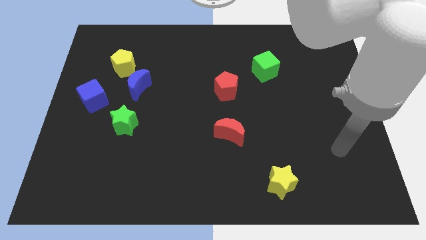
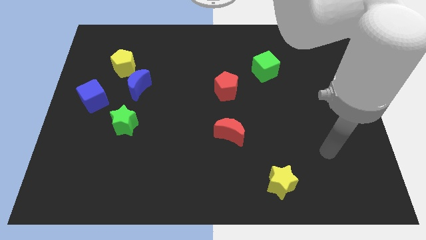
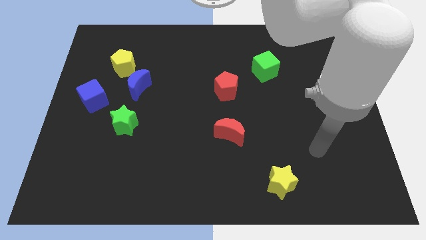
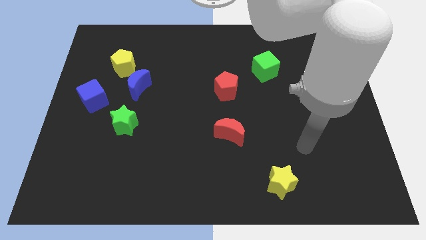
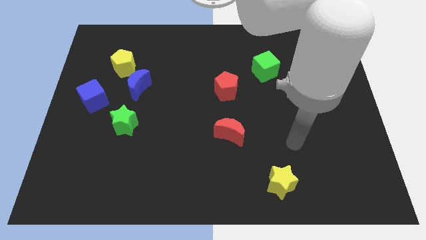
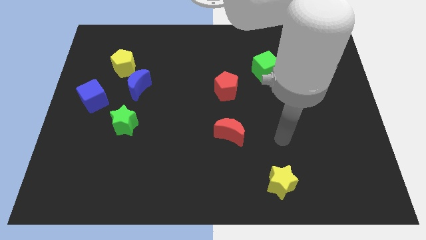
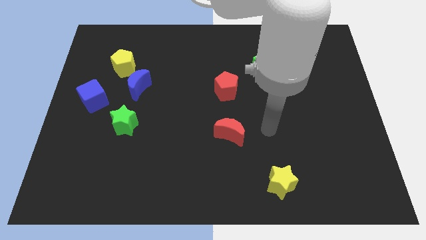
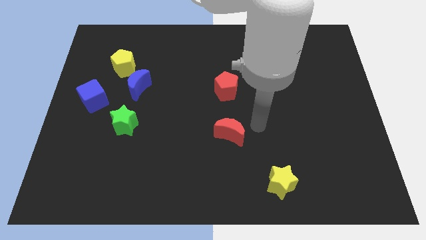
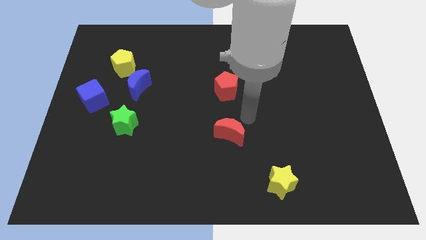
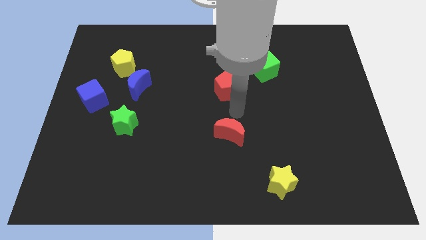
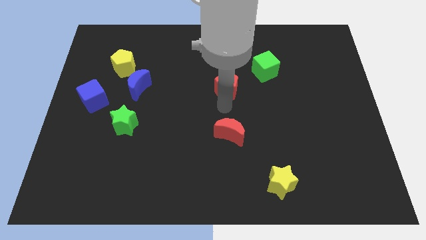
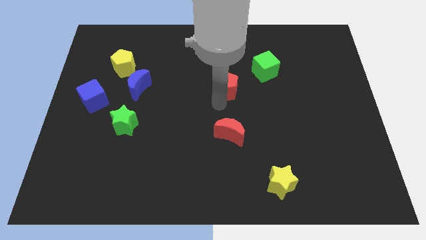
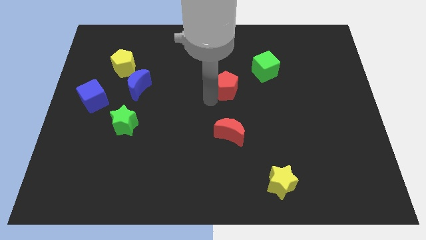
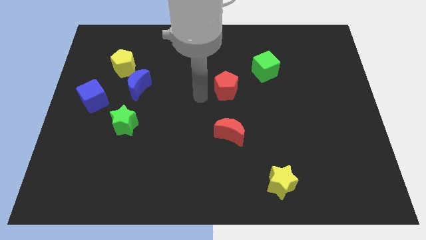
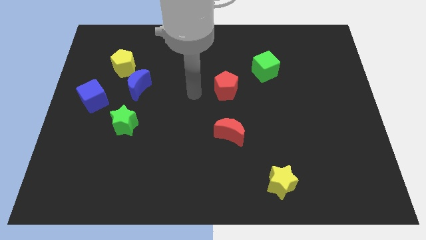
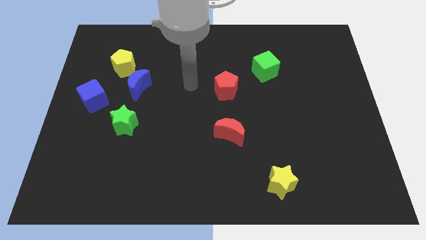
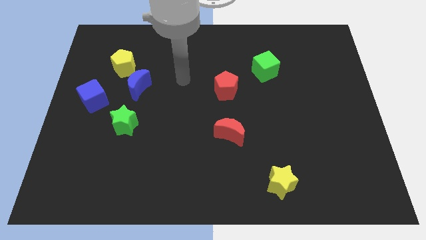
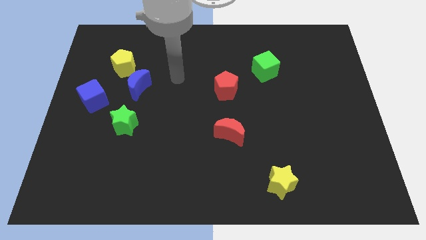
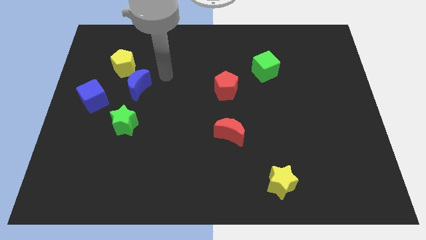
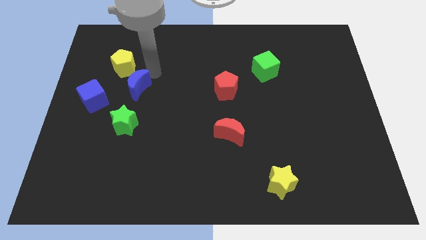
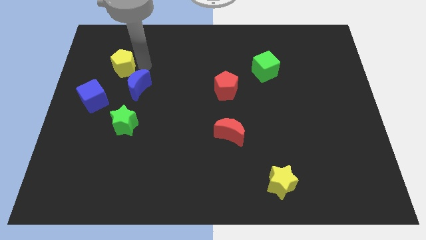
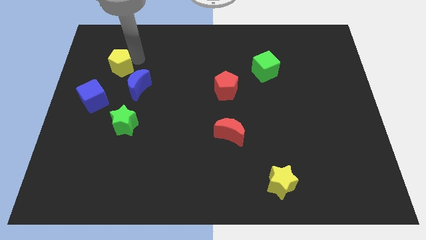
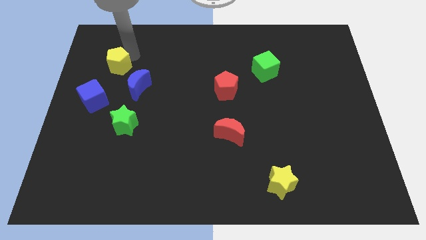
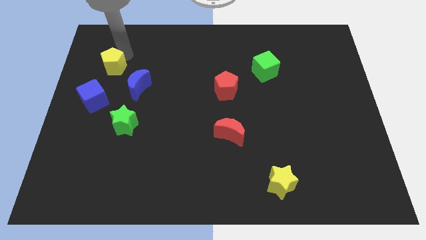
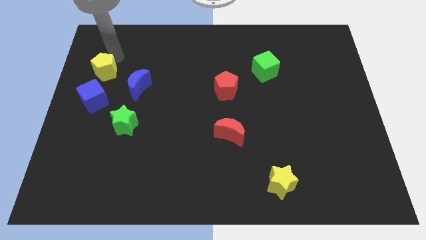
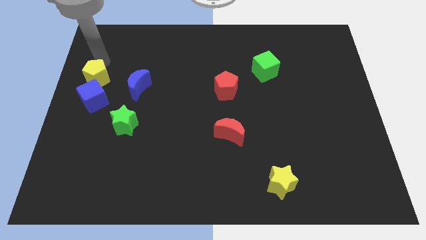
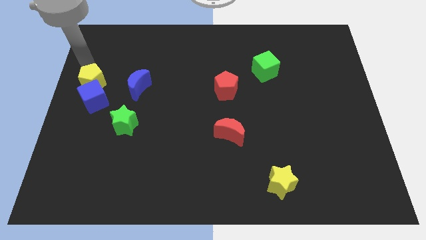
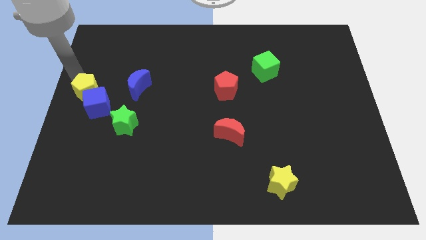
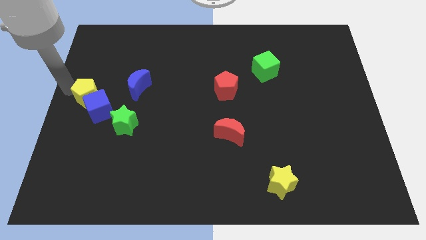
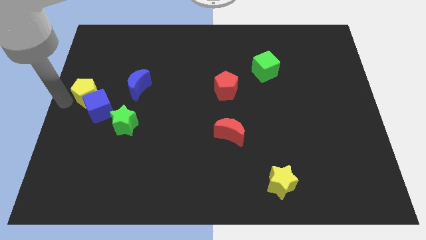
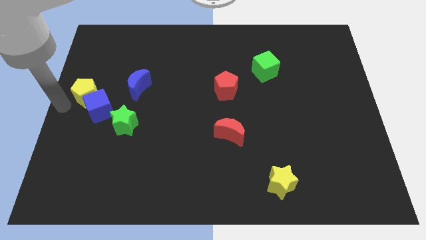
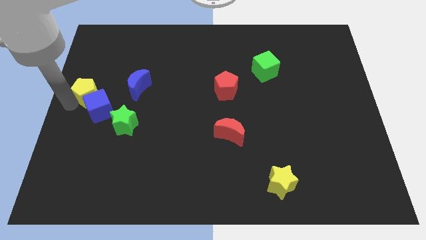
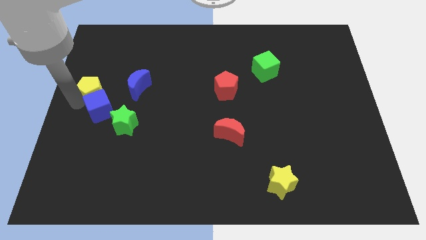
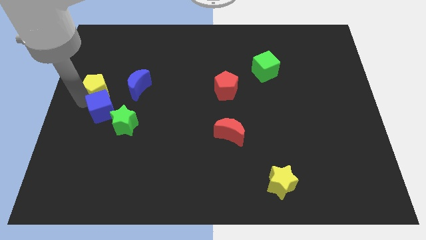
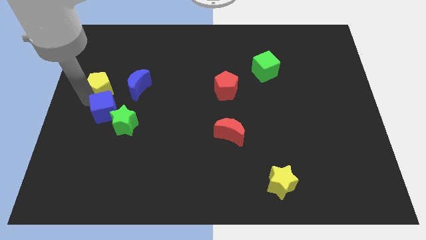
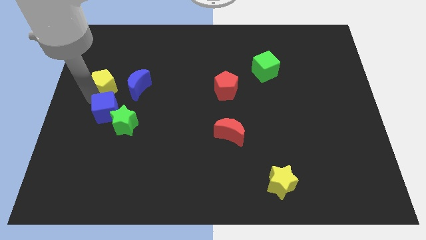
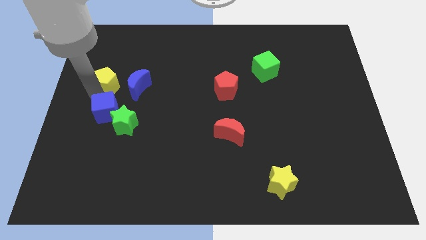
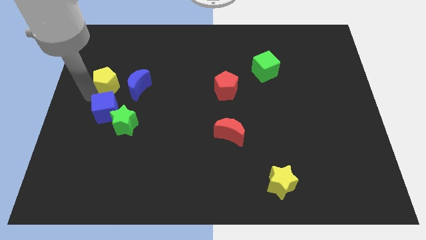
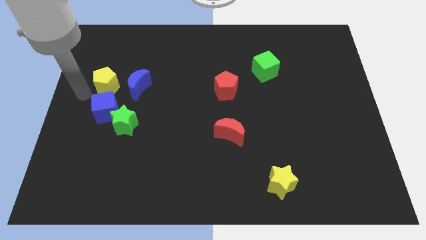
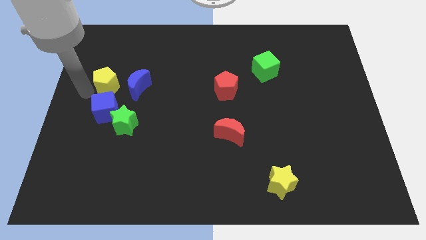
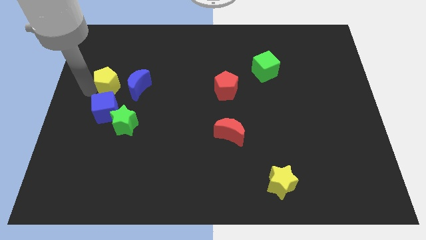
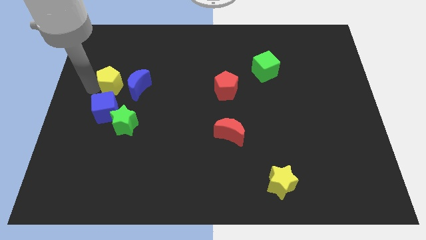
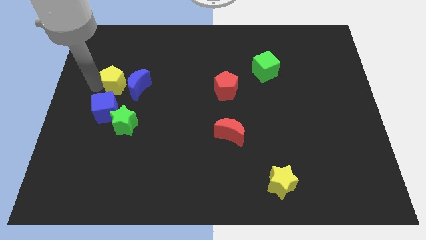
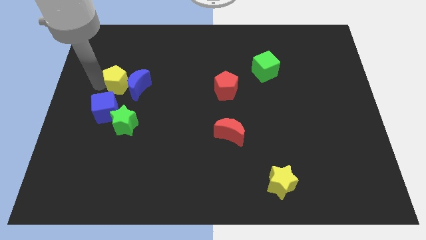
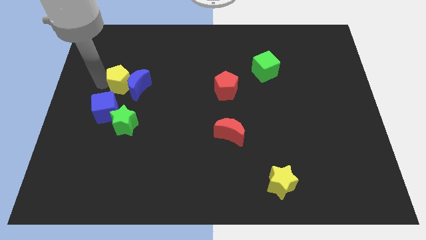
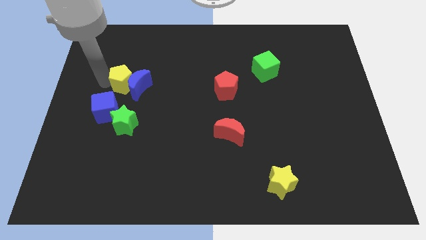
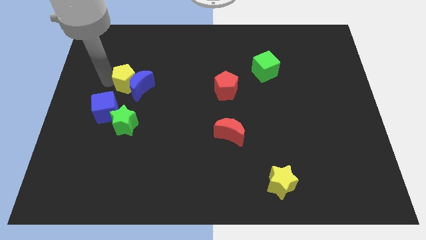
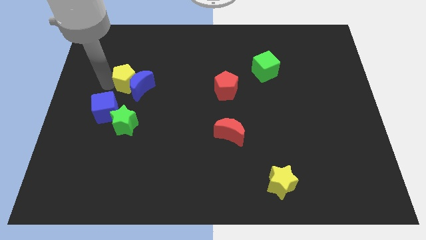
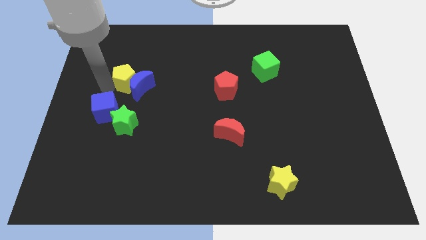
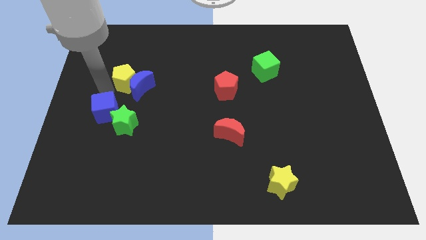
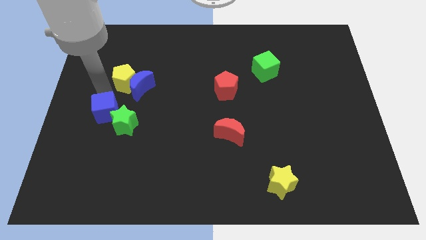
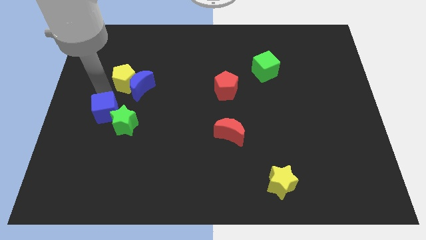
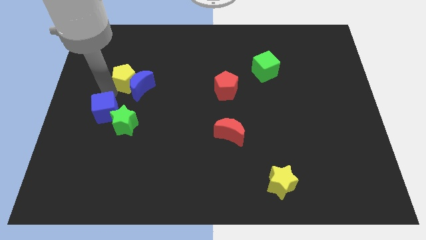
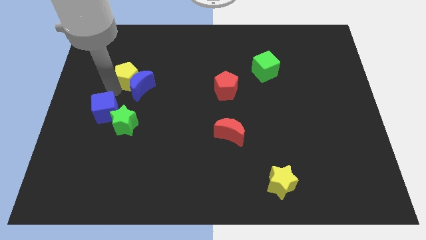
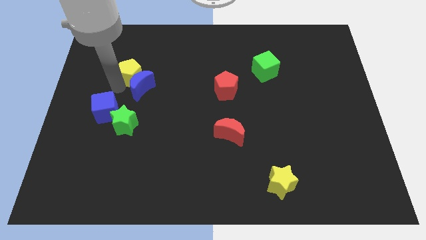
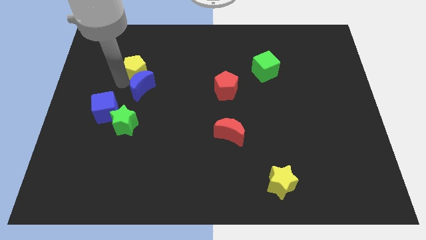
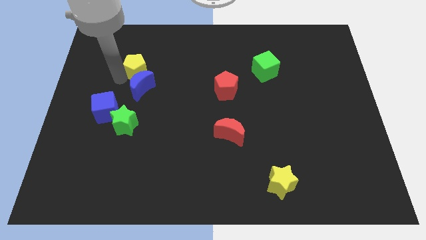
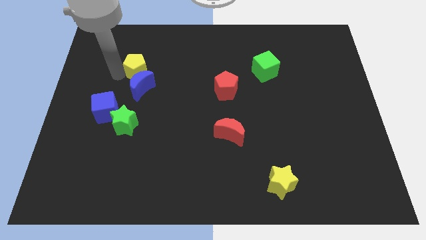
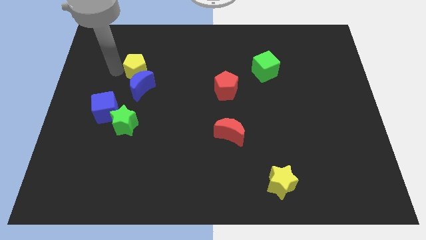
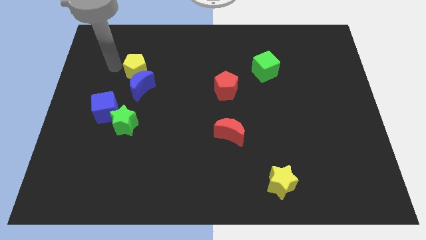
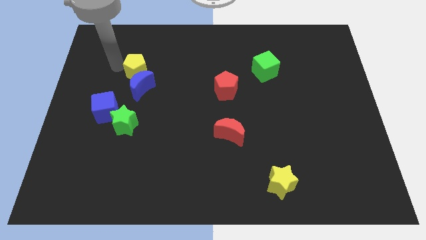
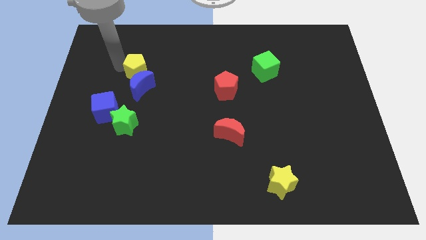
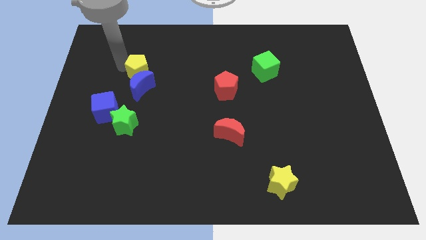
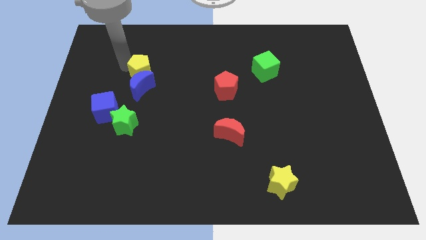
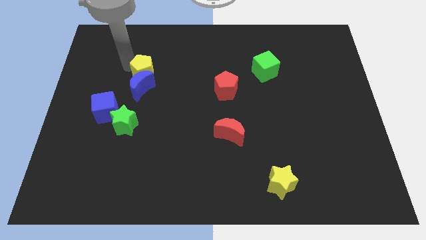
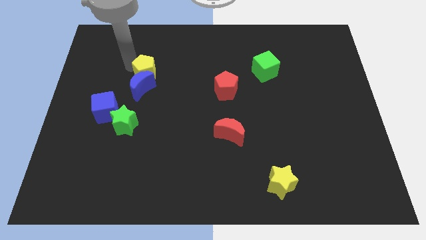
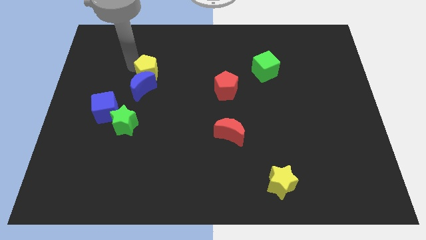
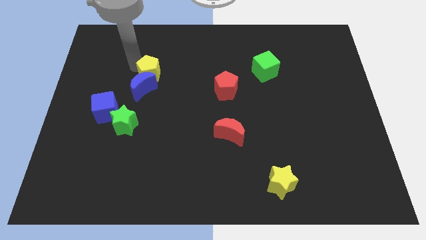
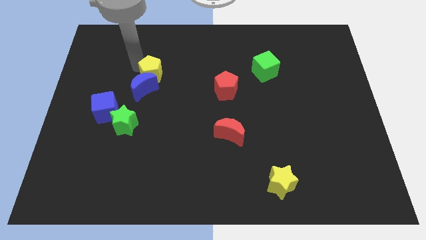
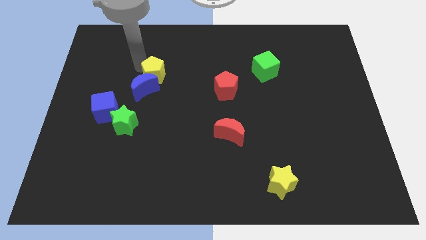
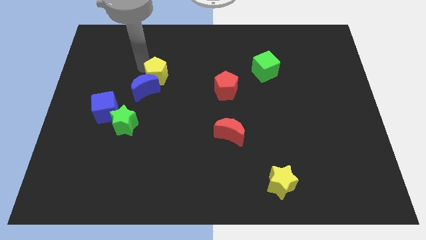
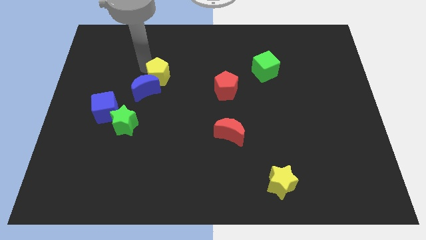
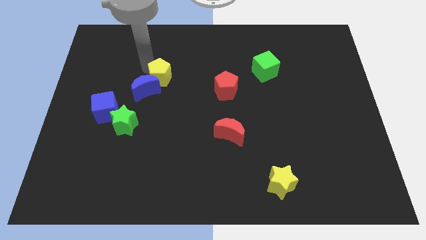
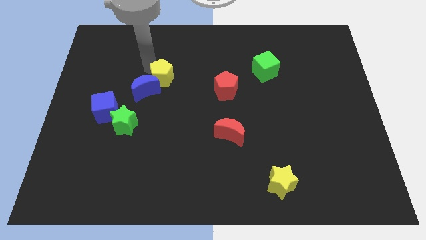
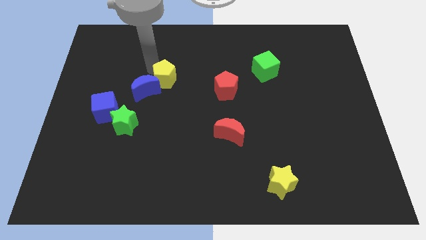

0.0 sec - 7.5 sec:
put the yellow pentagon left of the red pentagon
